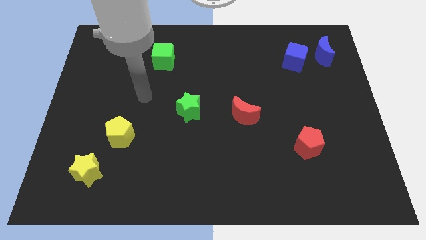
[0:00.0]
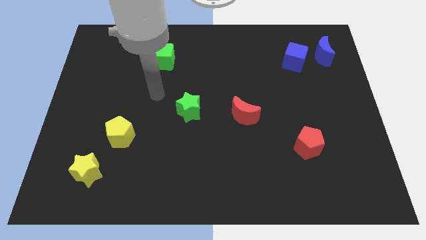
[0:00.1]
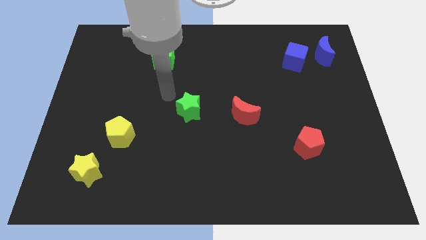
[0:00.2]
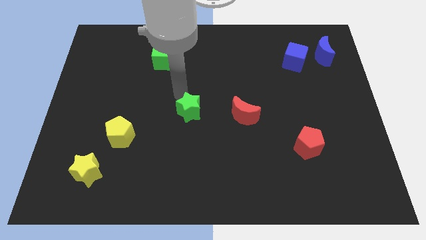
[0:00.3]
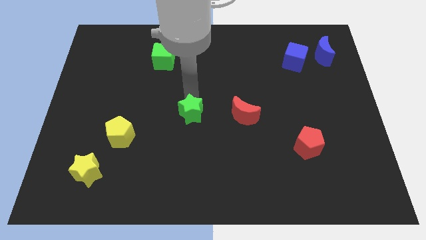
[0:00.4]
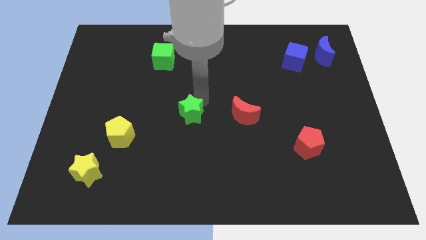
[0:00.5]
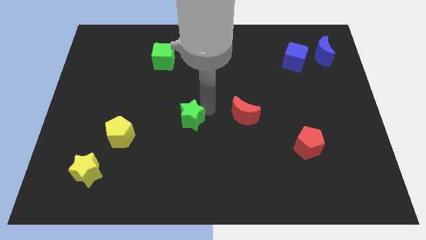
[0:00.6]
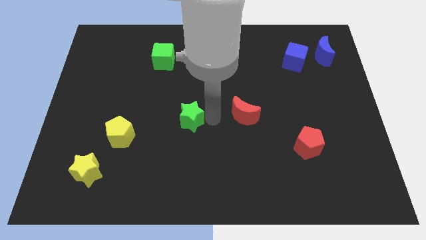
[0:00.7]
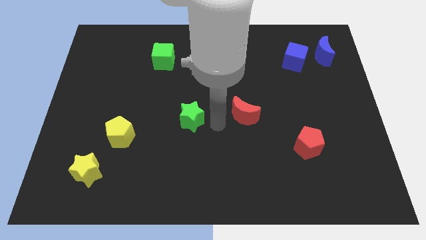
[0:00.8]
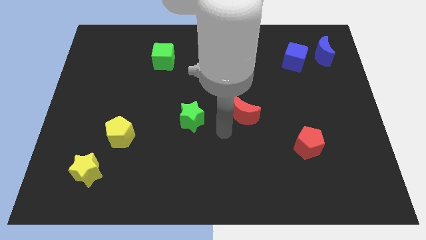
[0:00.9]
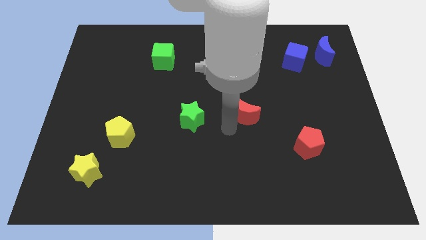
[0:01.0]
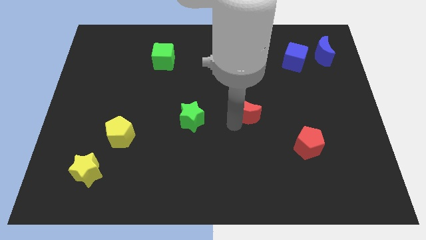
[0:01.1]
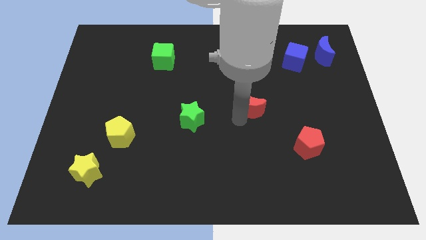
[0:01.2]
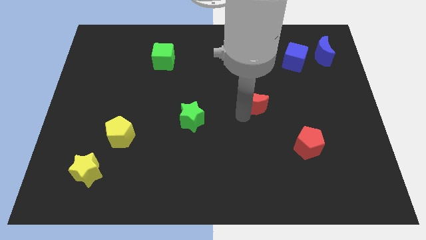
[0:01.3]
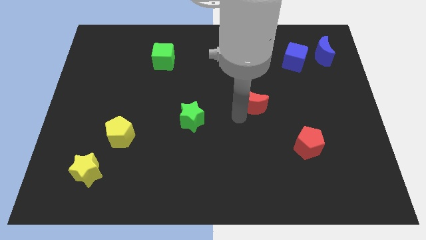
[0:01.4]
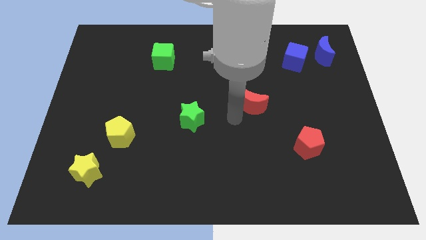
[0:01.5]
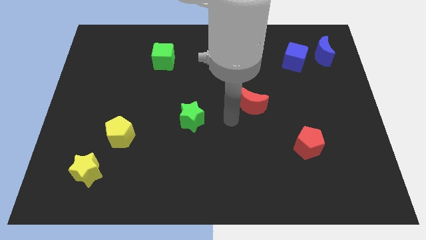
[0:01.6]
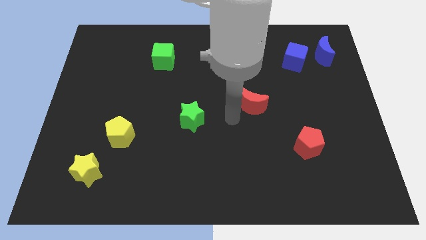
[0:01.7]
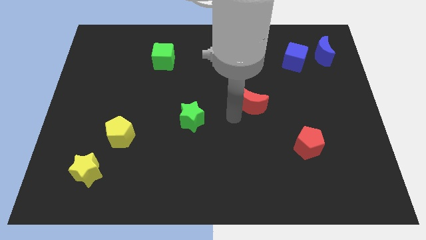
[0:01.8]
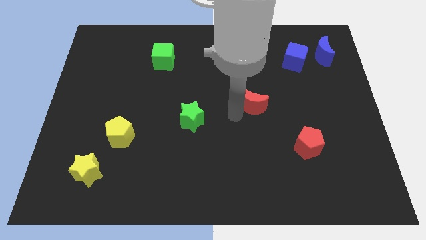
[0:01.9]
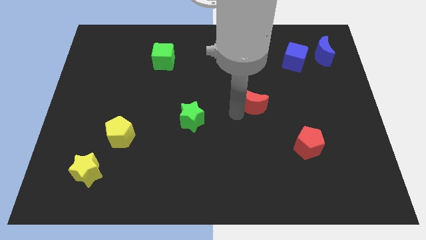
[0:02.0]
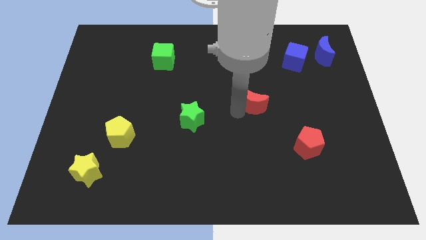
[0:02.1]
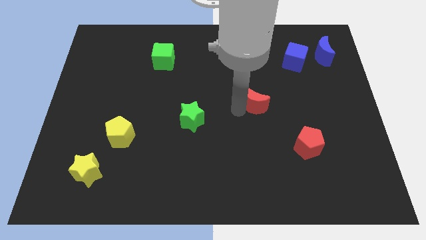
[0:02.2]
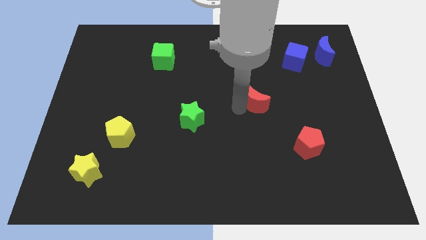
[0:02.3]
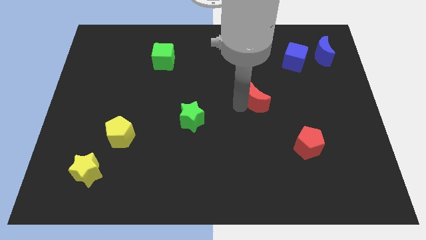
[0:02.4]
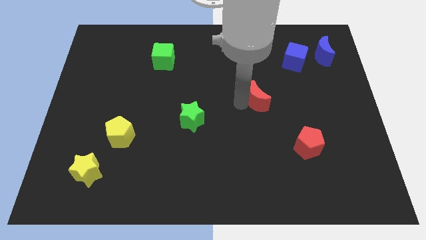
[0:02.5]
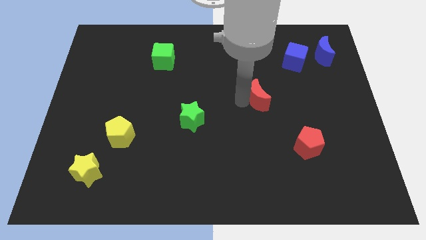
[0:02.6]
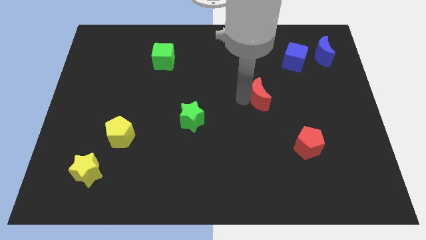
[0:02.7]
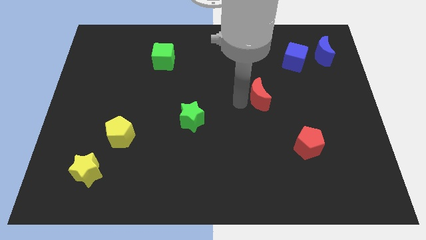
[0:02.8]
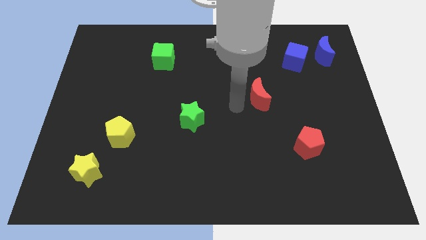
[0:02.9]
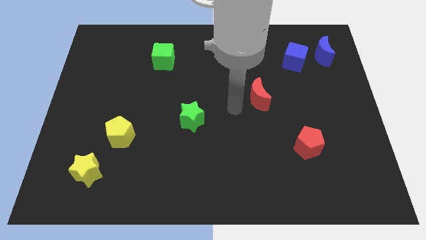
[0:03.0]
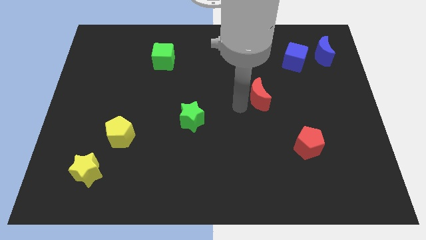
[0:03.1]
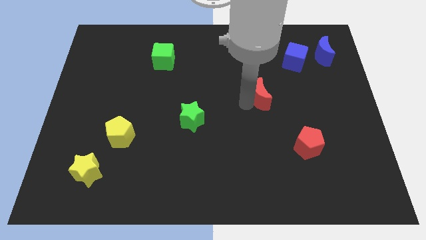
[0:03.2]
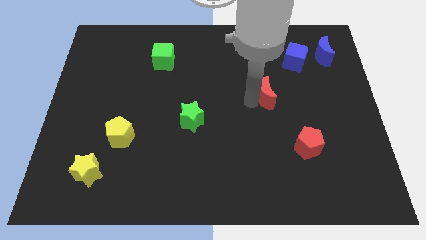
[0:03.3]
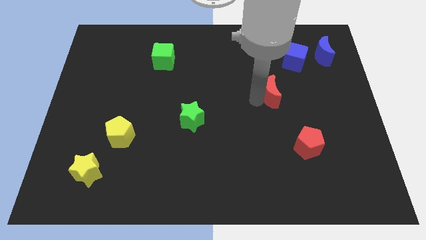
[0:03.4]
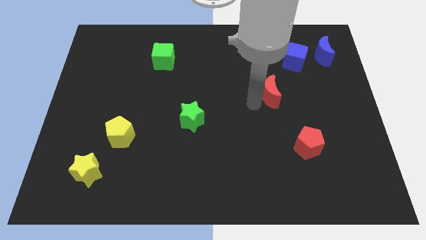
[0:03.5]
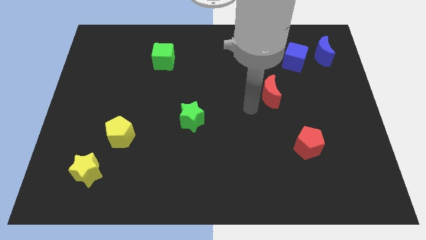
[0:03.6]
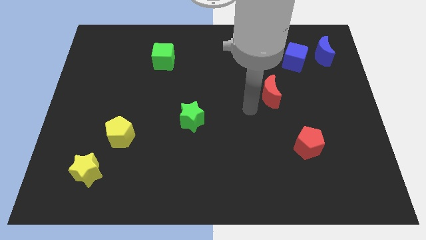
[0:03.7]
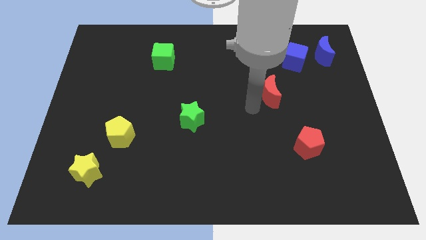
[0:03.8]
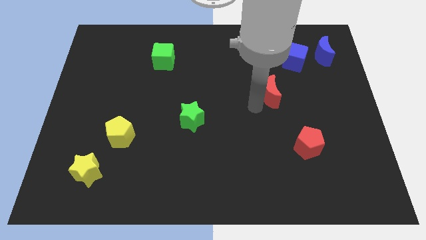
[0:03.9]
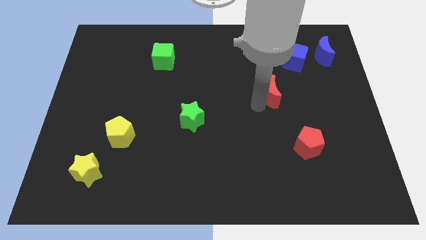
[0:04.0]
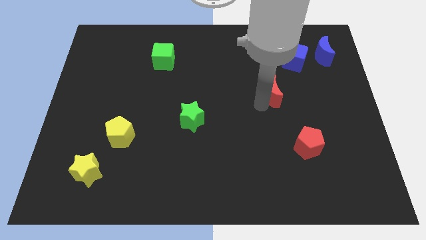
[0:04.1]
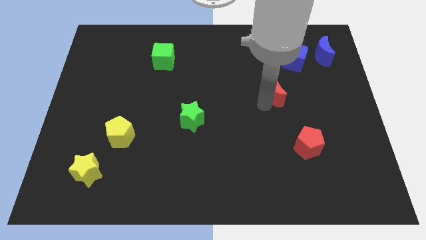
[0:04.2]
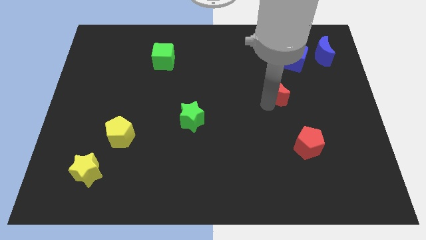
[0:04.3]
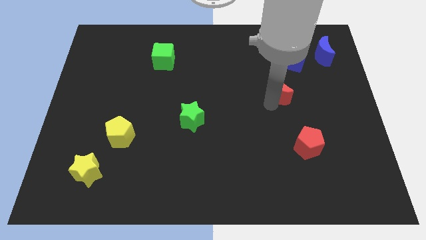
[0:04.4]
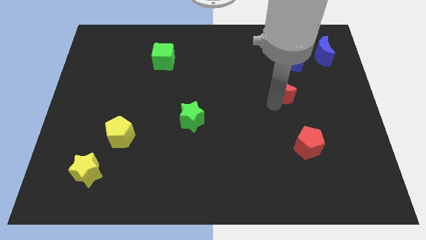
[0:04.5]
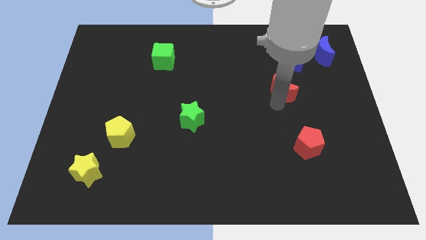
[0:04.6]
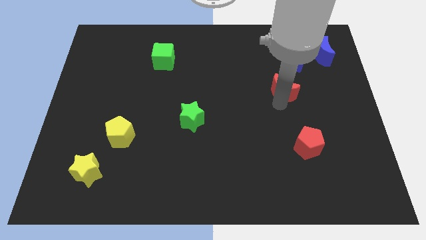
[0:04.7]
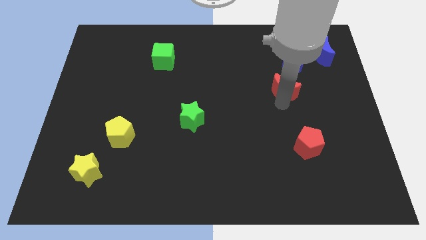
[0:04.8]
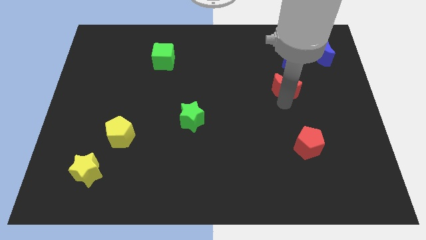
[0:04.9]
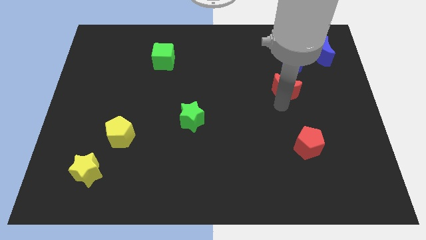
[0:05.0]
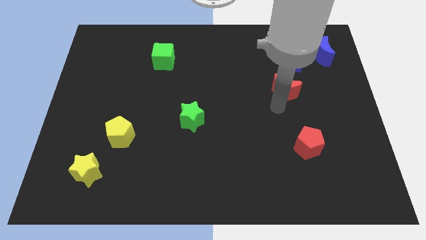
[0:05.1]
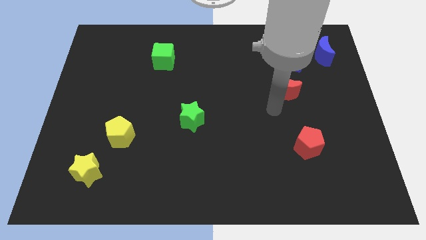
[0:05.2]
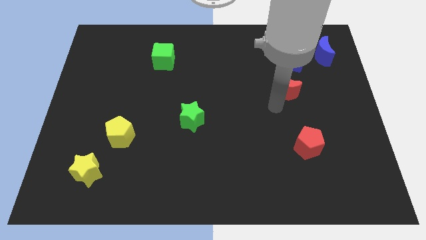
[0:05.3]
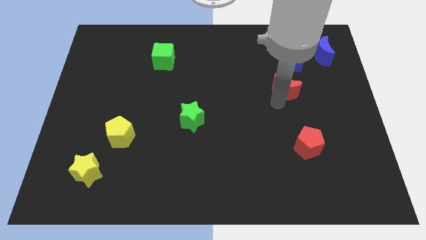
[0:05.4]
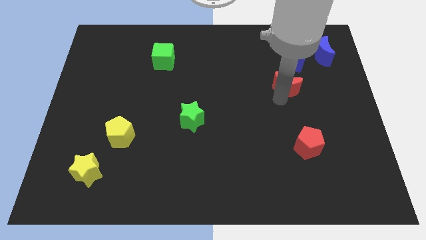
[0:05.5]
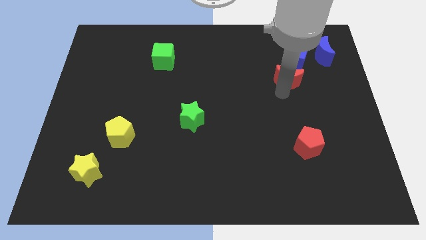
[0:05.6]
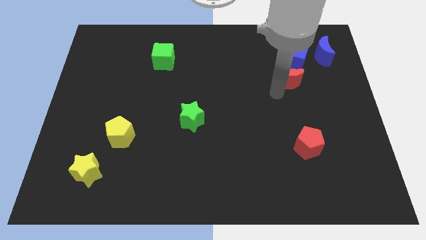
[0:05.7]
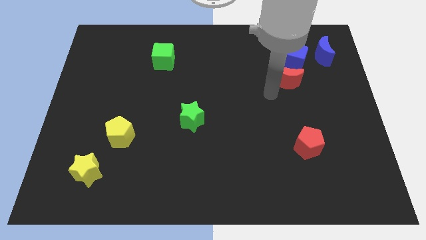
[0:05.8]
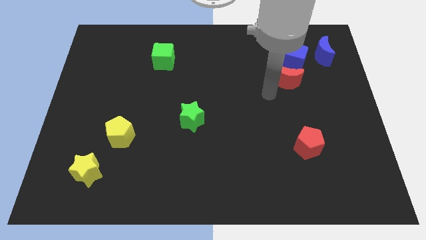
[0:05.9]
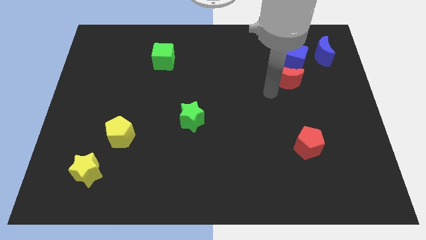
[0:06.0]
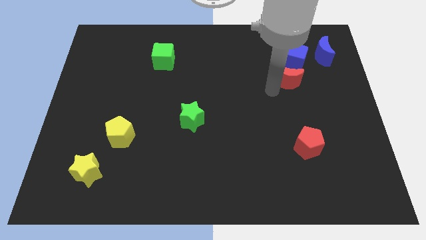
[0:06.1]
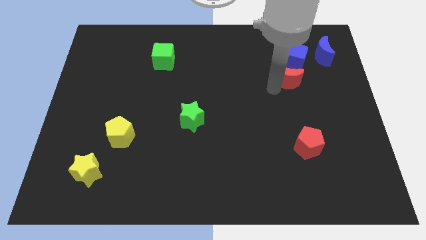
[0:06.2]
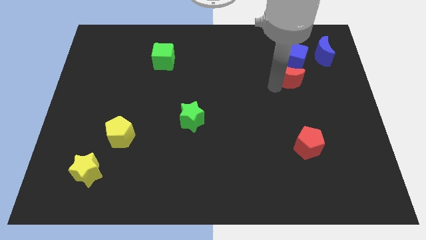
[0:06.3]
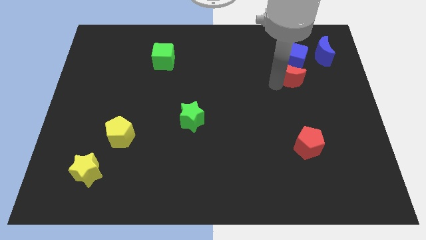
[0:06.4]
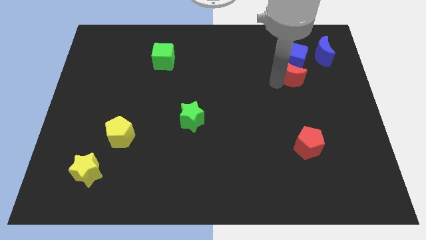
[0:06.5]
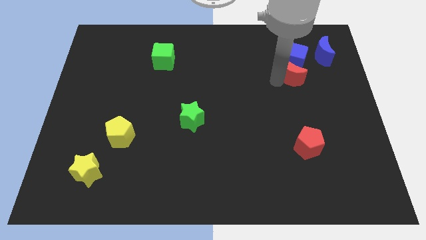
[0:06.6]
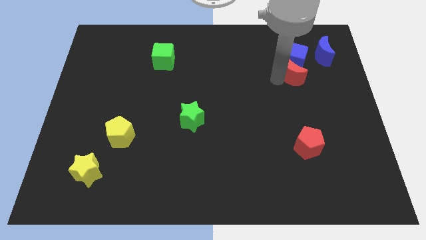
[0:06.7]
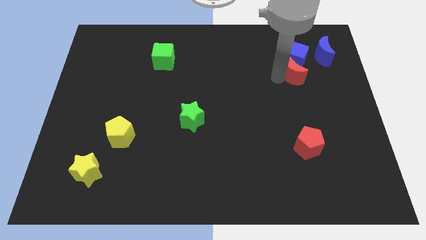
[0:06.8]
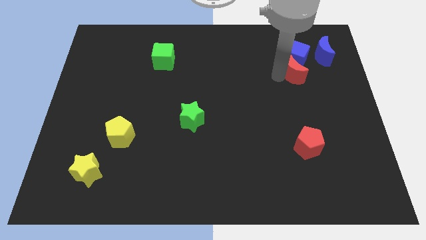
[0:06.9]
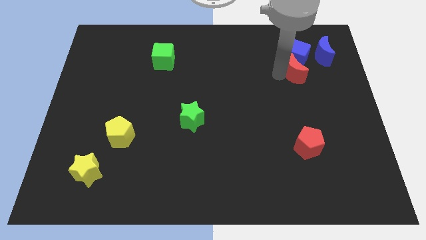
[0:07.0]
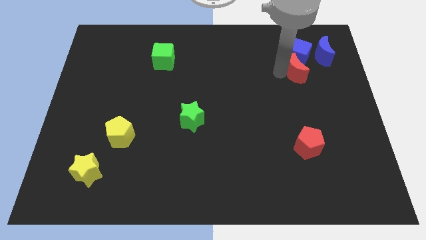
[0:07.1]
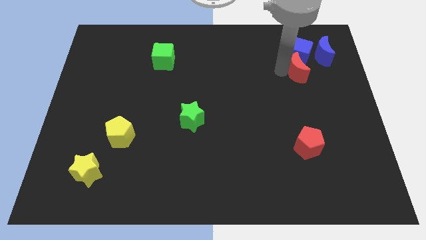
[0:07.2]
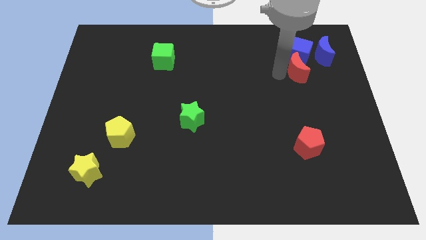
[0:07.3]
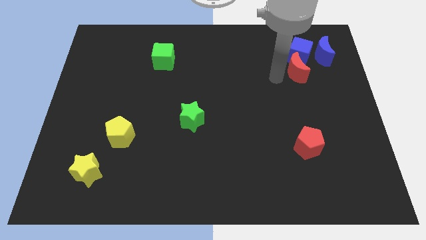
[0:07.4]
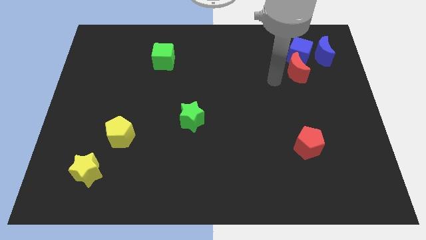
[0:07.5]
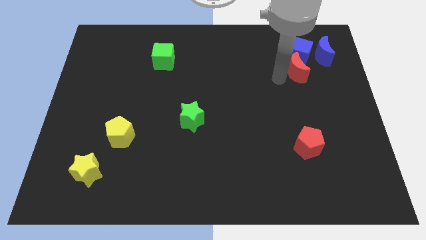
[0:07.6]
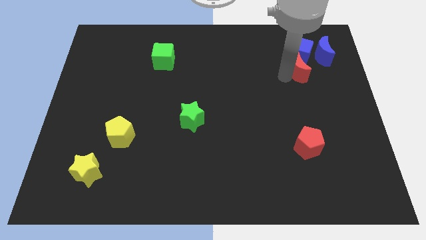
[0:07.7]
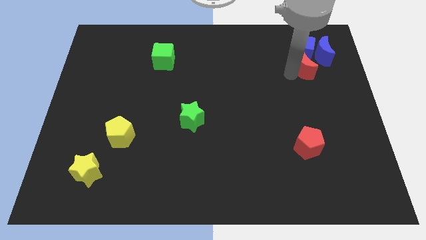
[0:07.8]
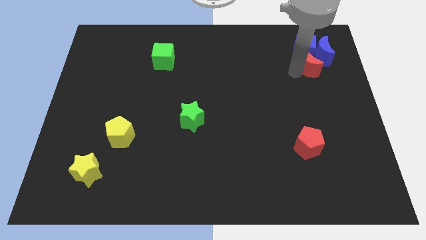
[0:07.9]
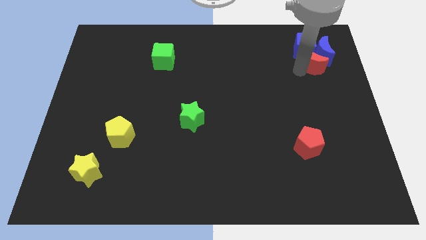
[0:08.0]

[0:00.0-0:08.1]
put the red moon close to the blue moon
